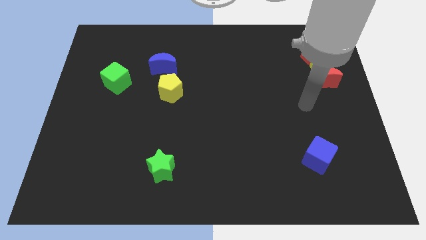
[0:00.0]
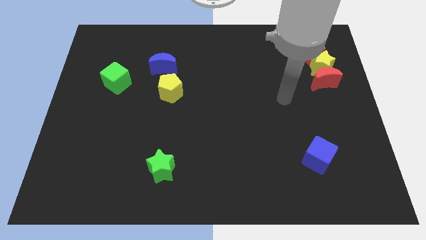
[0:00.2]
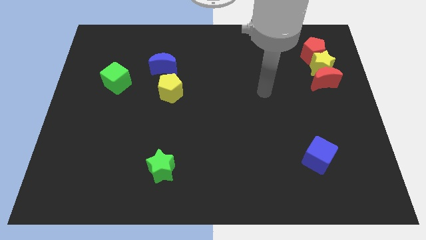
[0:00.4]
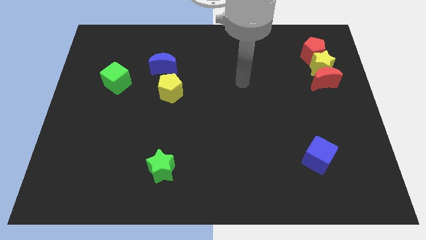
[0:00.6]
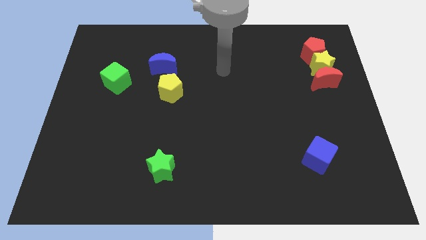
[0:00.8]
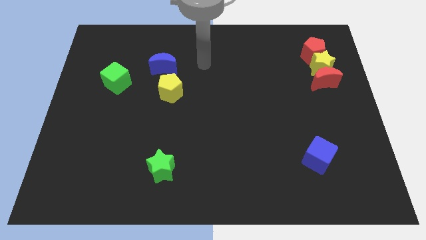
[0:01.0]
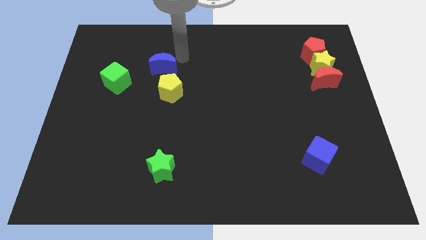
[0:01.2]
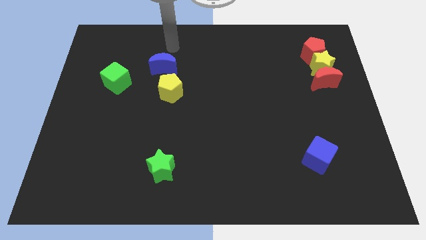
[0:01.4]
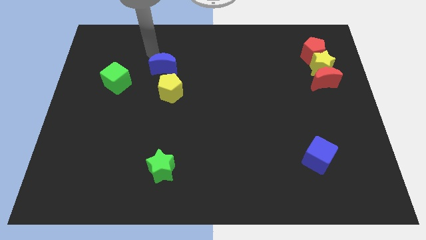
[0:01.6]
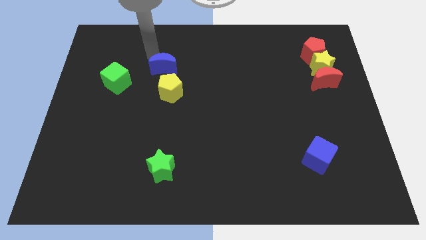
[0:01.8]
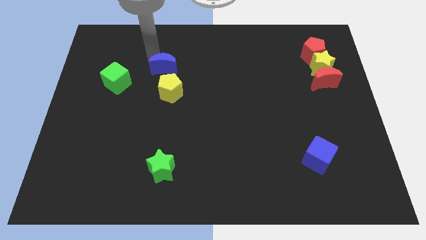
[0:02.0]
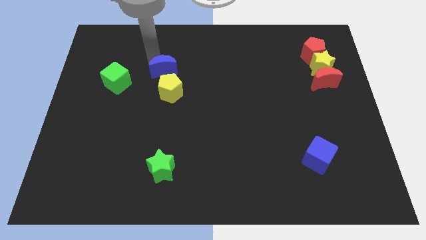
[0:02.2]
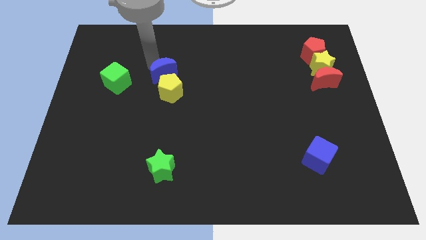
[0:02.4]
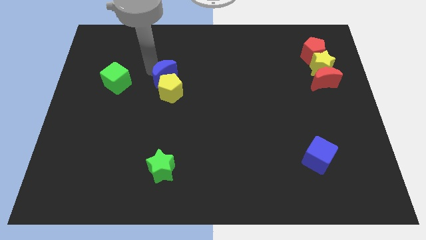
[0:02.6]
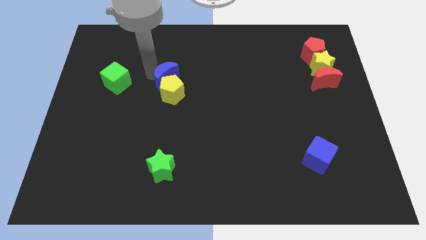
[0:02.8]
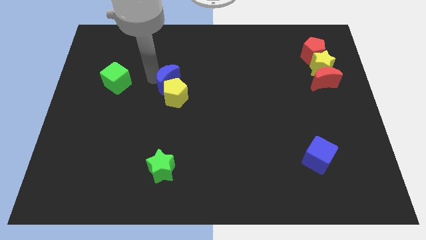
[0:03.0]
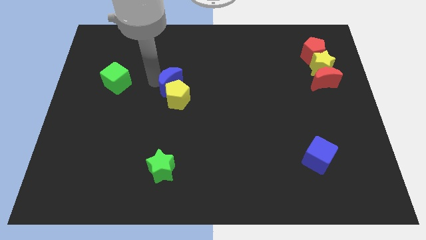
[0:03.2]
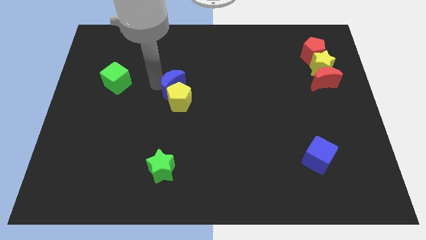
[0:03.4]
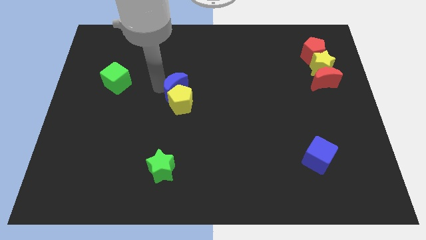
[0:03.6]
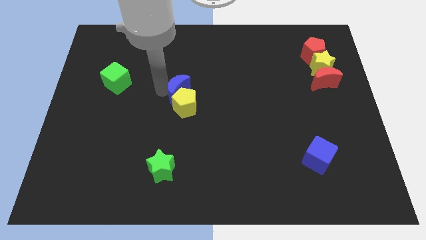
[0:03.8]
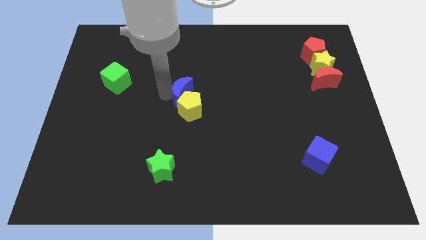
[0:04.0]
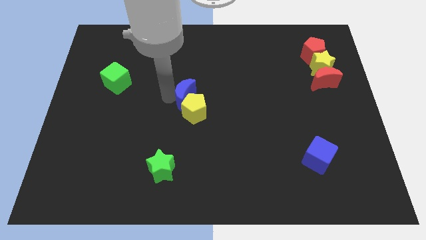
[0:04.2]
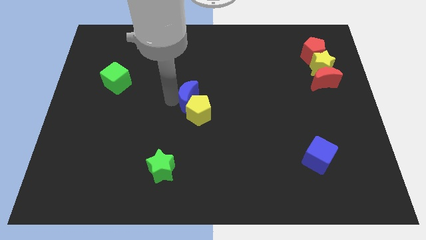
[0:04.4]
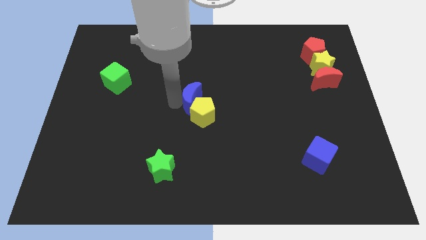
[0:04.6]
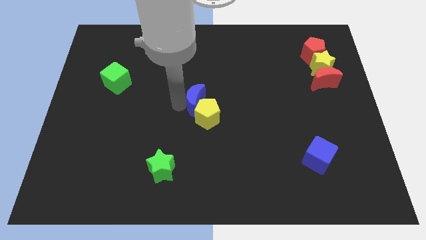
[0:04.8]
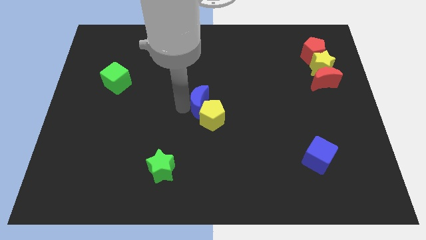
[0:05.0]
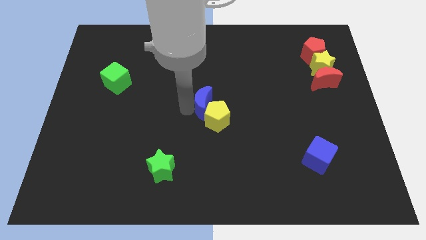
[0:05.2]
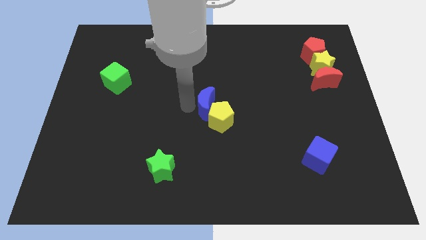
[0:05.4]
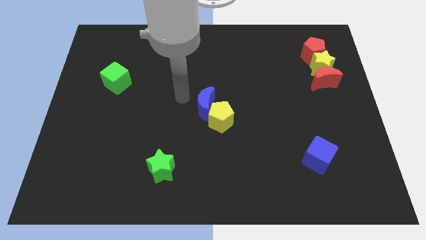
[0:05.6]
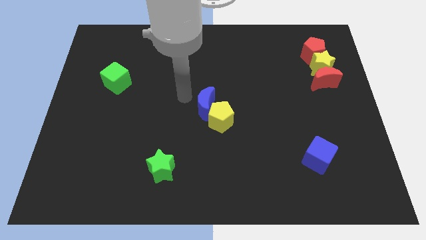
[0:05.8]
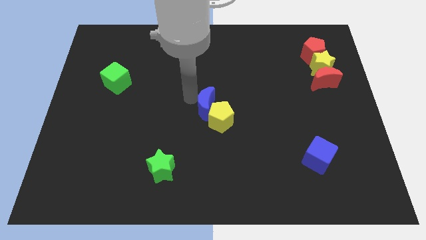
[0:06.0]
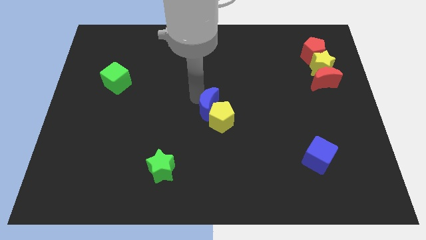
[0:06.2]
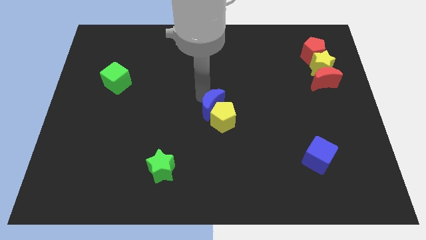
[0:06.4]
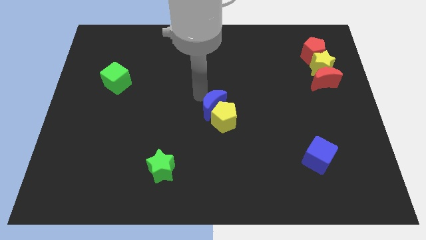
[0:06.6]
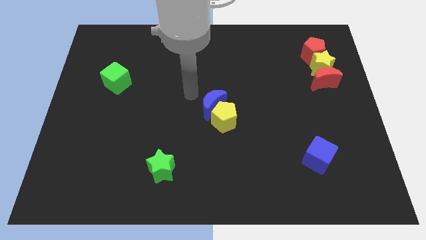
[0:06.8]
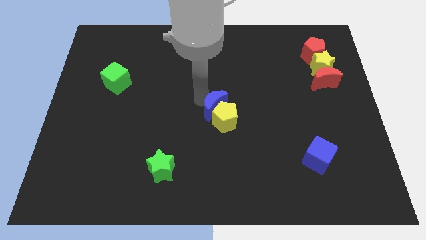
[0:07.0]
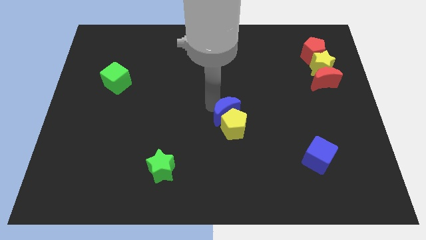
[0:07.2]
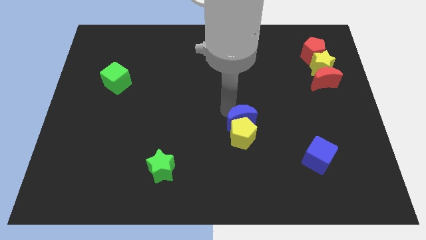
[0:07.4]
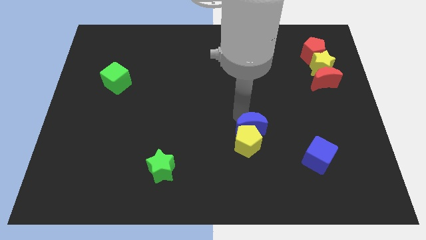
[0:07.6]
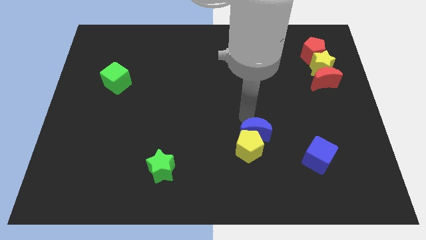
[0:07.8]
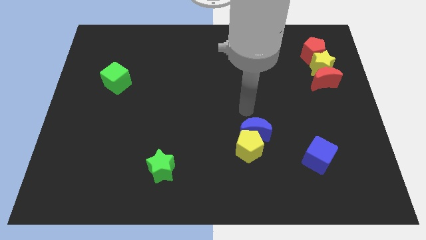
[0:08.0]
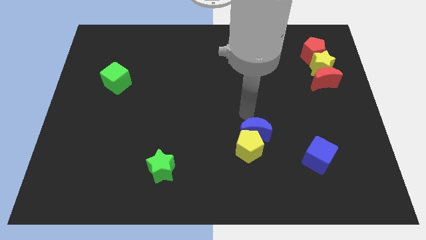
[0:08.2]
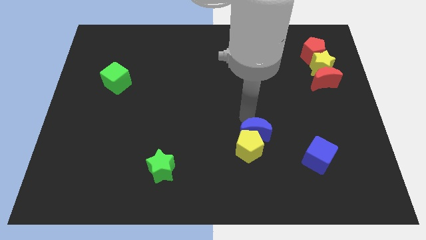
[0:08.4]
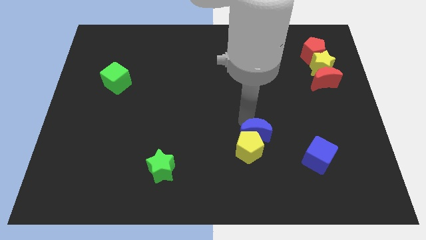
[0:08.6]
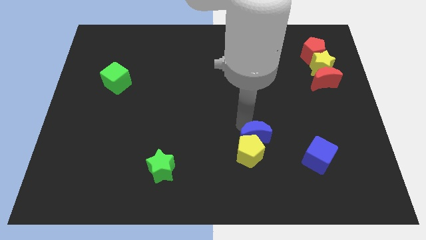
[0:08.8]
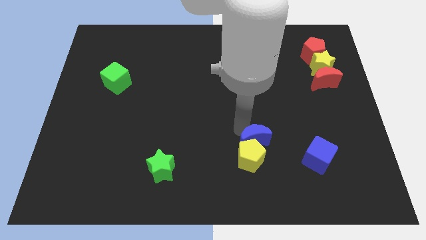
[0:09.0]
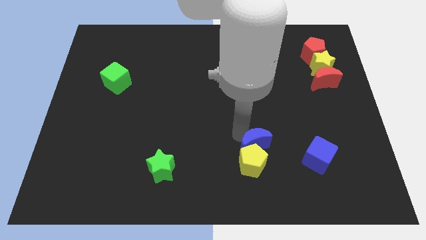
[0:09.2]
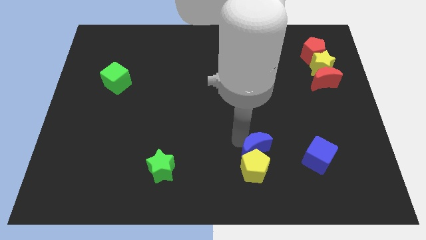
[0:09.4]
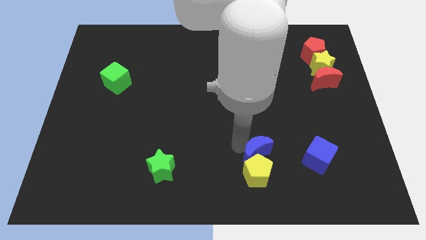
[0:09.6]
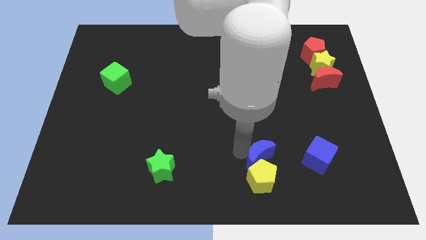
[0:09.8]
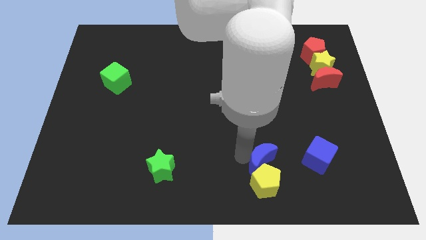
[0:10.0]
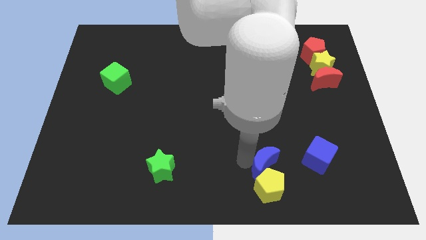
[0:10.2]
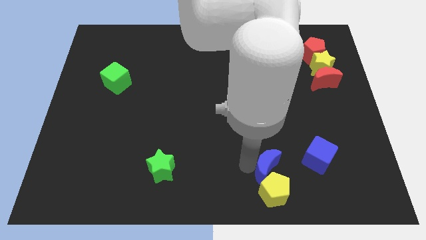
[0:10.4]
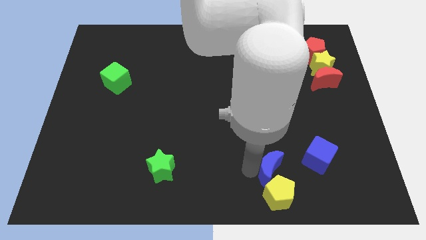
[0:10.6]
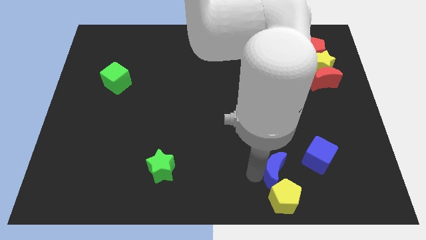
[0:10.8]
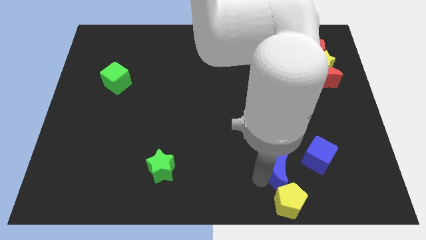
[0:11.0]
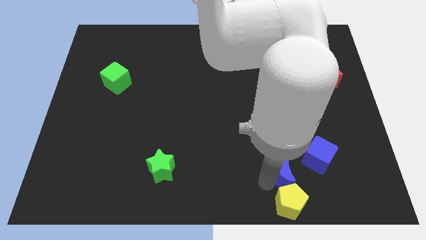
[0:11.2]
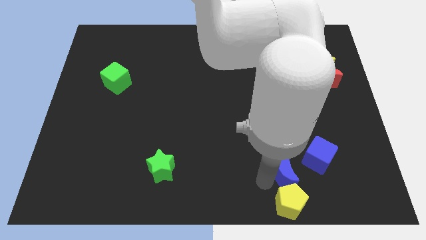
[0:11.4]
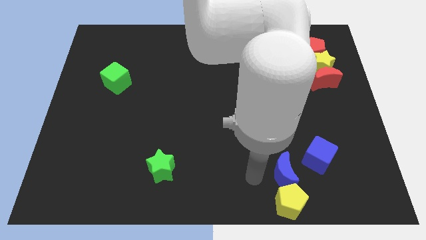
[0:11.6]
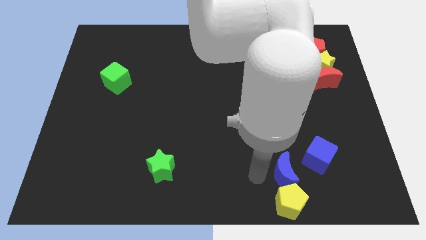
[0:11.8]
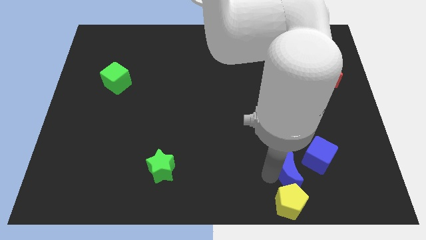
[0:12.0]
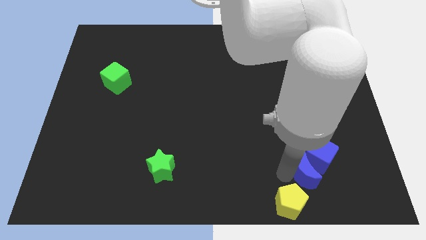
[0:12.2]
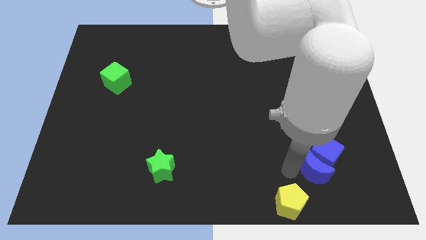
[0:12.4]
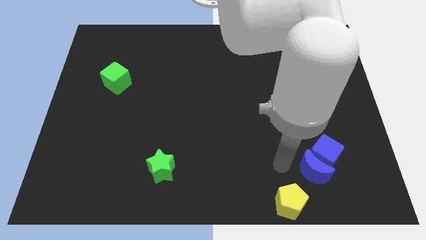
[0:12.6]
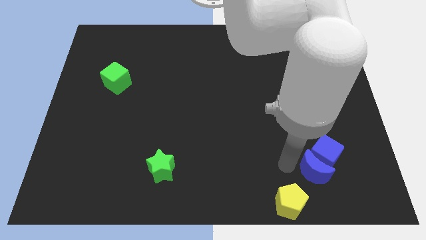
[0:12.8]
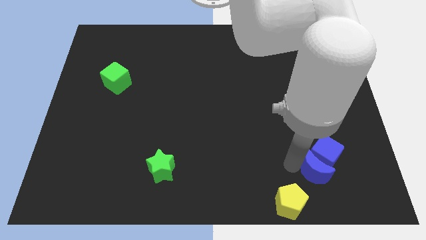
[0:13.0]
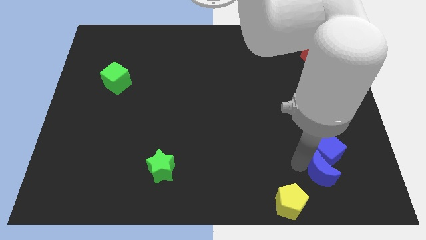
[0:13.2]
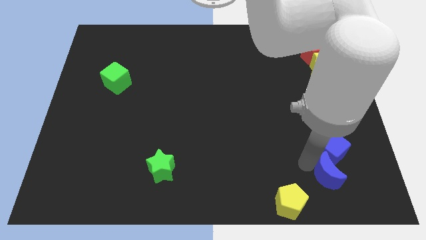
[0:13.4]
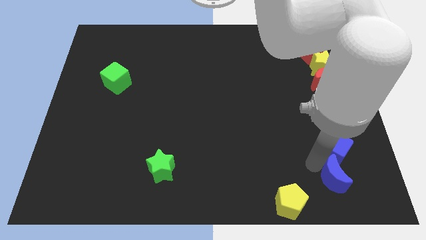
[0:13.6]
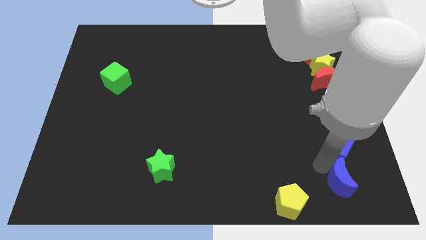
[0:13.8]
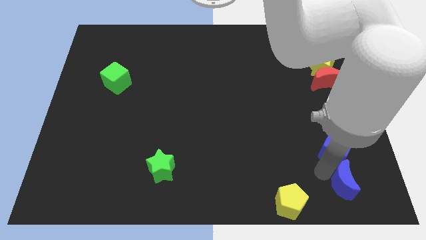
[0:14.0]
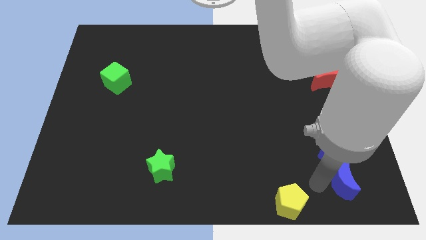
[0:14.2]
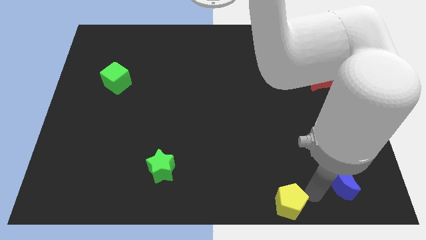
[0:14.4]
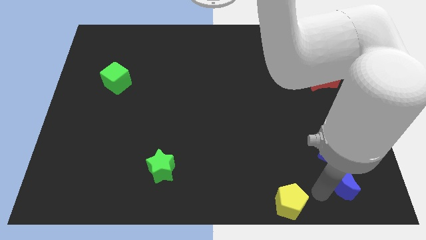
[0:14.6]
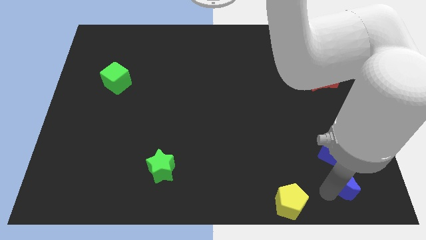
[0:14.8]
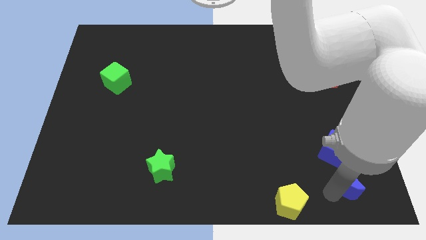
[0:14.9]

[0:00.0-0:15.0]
move the blue moon diagonally down and to the right of the blue cube

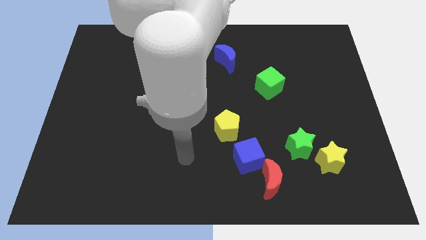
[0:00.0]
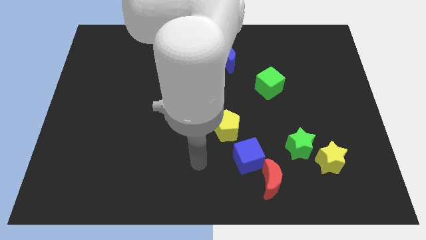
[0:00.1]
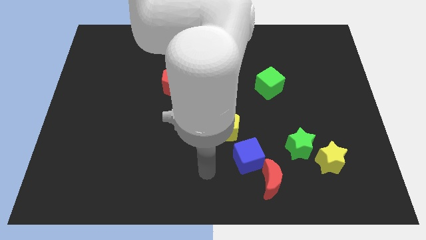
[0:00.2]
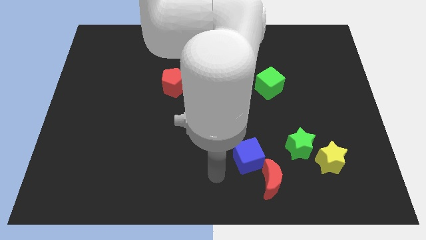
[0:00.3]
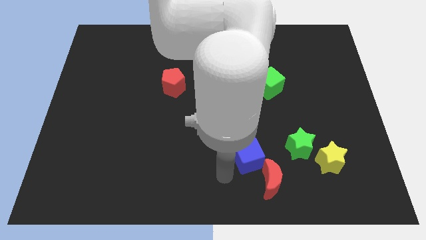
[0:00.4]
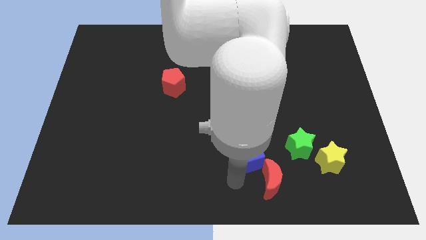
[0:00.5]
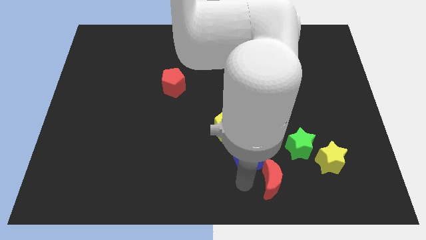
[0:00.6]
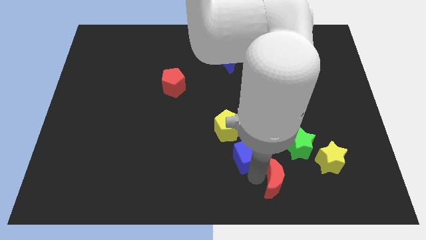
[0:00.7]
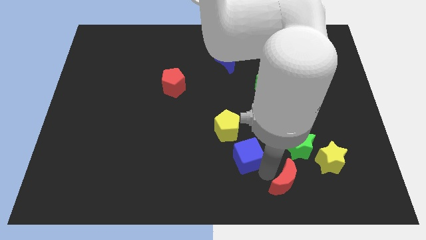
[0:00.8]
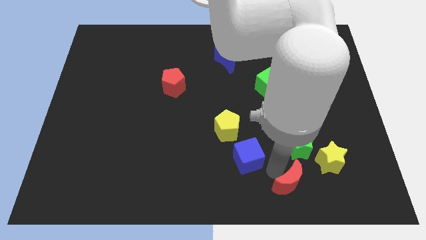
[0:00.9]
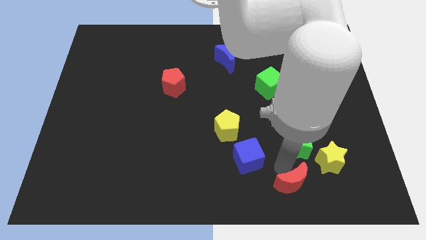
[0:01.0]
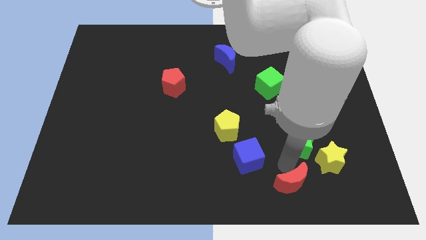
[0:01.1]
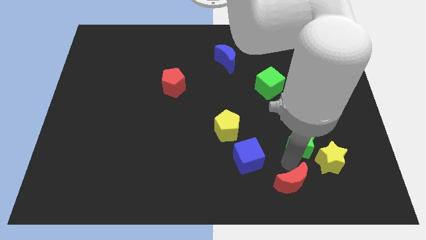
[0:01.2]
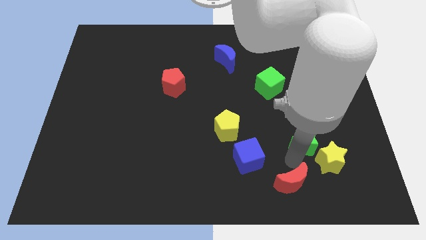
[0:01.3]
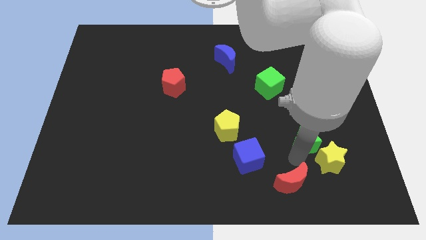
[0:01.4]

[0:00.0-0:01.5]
slide the green star above the yellow star
